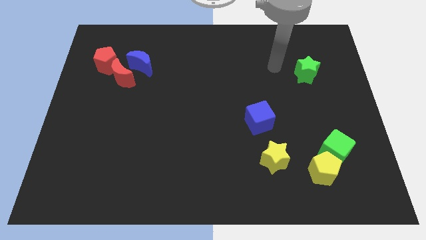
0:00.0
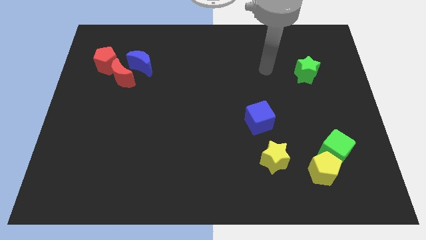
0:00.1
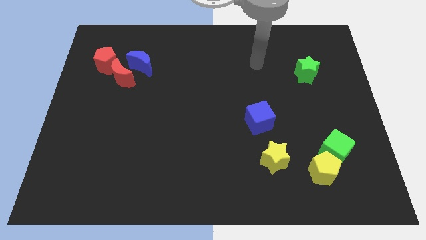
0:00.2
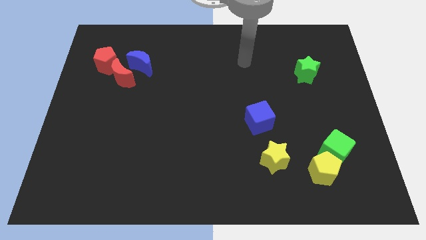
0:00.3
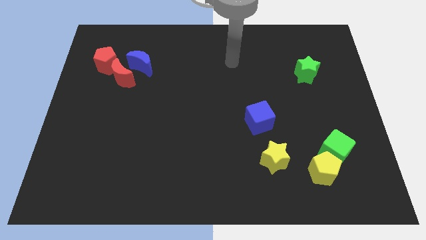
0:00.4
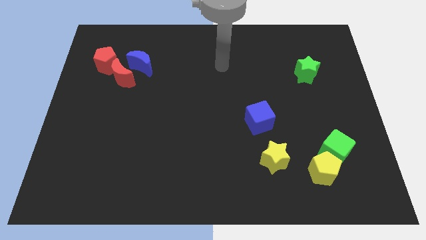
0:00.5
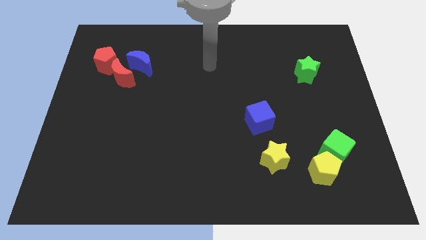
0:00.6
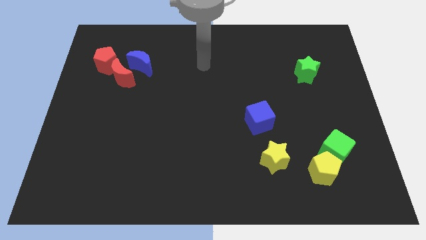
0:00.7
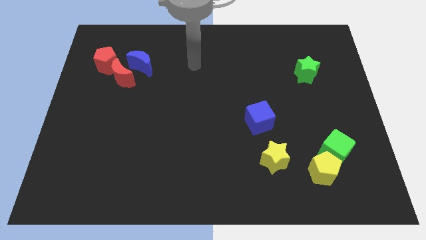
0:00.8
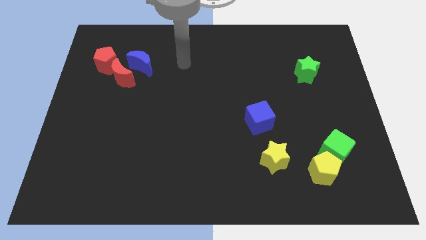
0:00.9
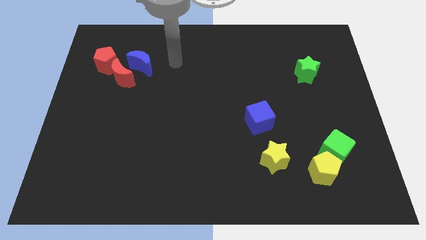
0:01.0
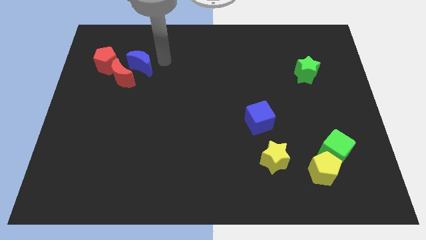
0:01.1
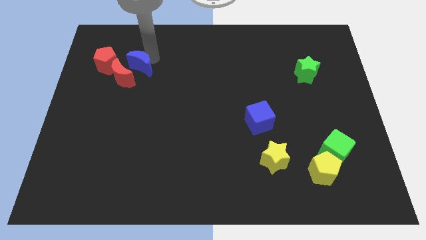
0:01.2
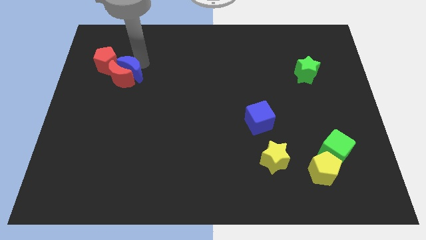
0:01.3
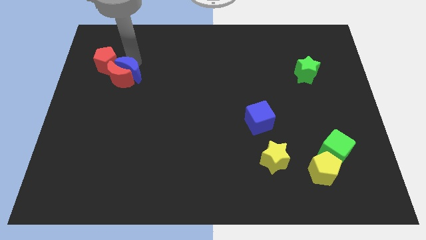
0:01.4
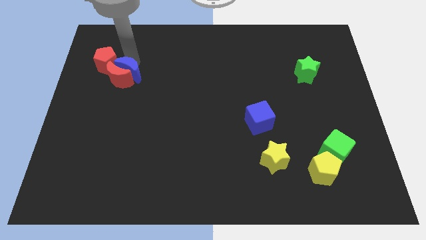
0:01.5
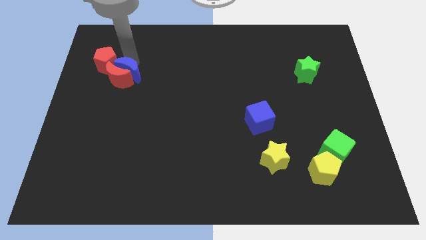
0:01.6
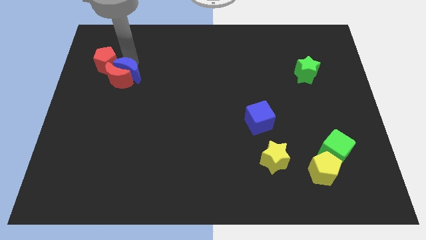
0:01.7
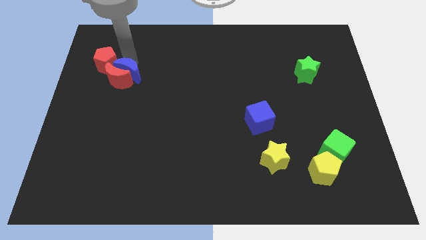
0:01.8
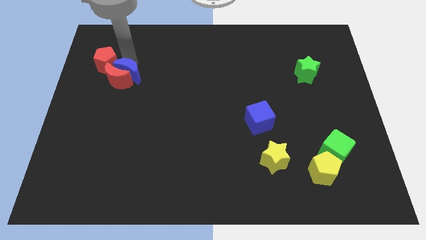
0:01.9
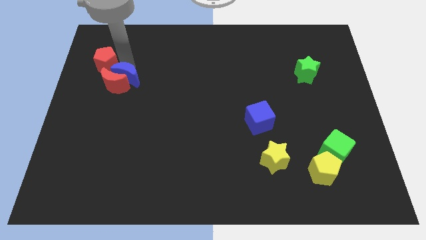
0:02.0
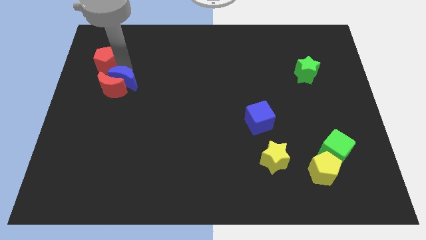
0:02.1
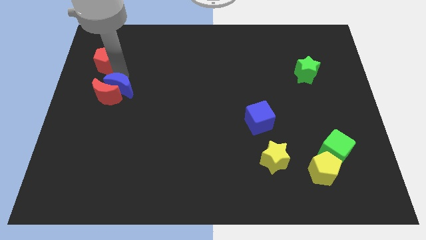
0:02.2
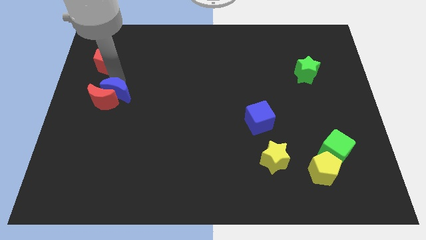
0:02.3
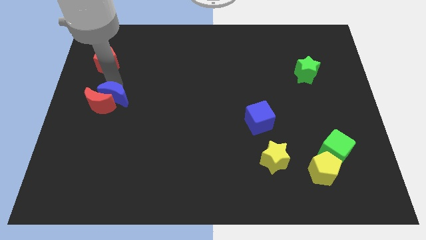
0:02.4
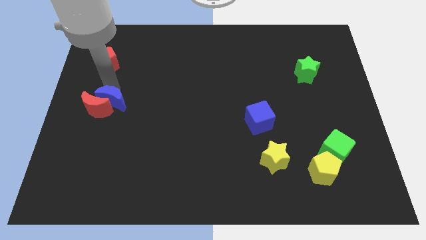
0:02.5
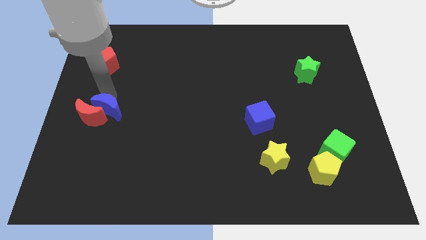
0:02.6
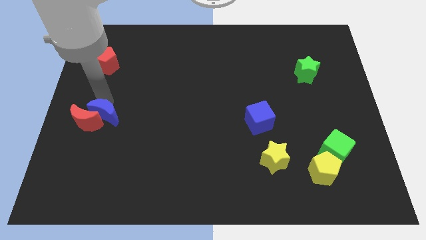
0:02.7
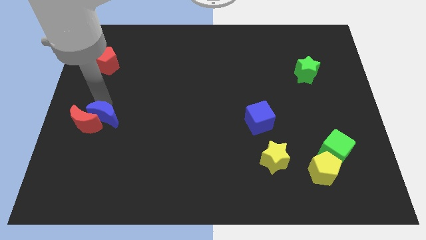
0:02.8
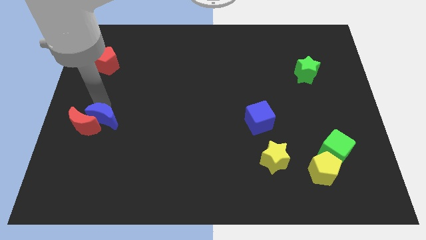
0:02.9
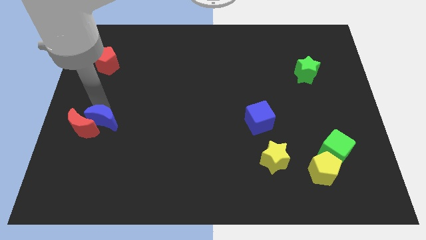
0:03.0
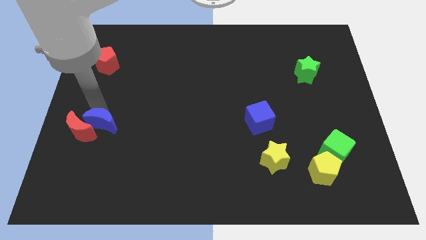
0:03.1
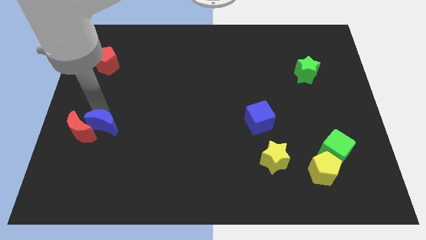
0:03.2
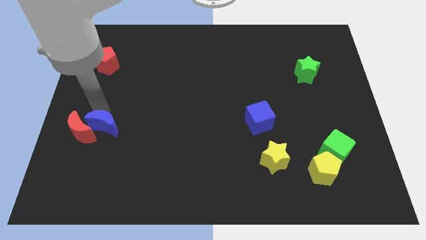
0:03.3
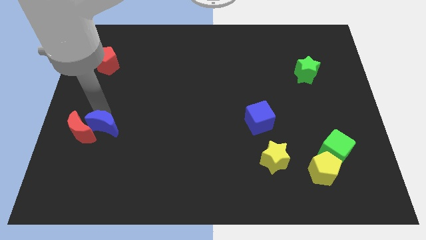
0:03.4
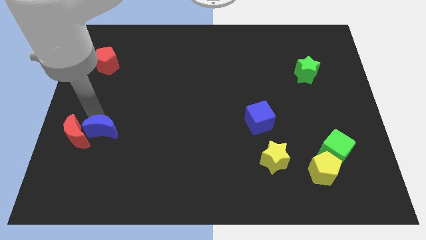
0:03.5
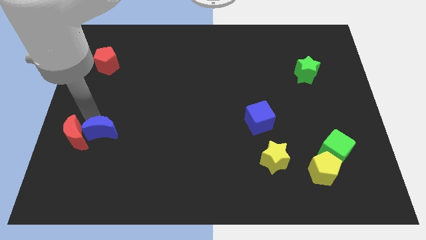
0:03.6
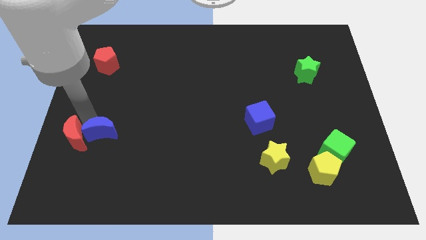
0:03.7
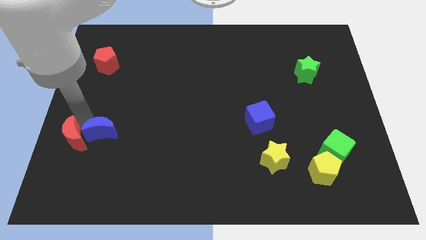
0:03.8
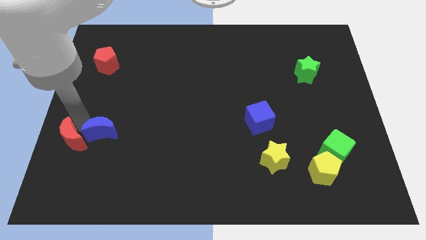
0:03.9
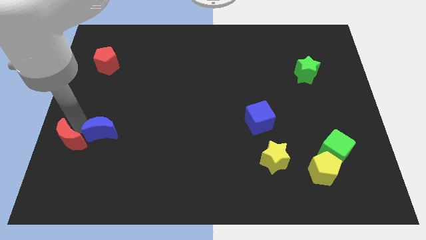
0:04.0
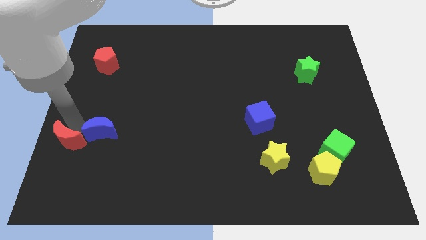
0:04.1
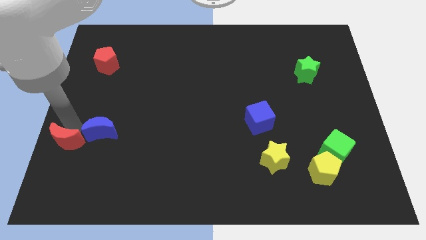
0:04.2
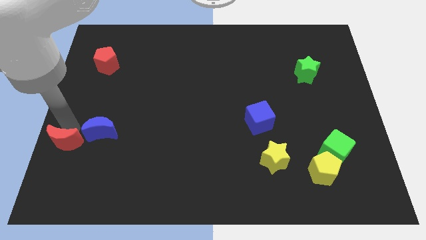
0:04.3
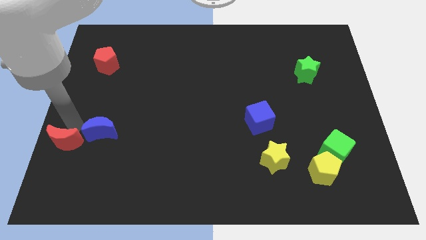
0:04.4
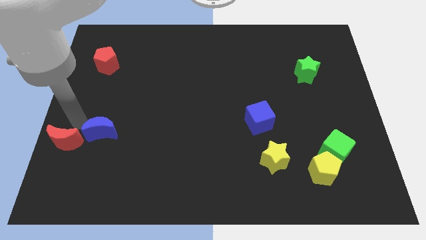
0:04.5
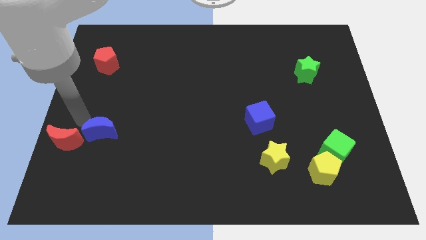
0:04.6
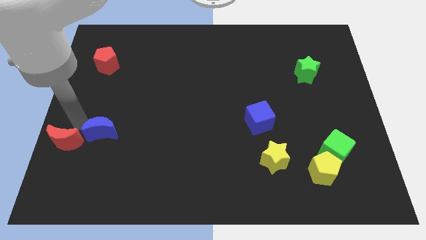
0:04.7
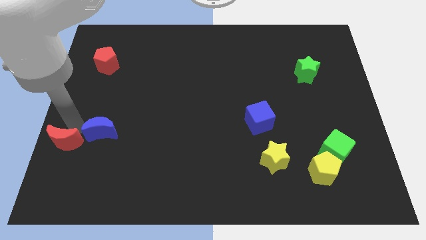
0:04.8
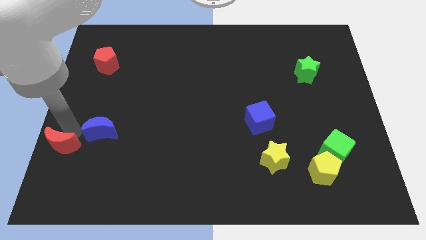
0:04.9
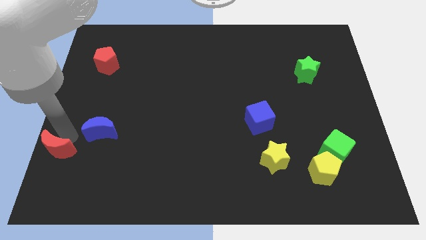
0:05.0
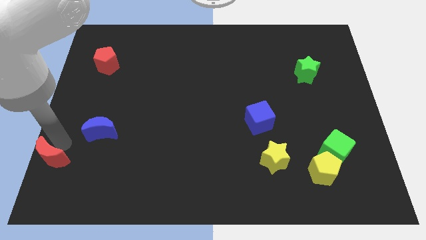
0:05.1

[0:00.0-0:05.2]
slide the red moon to the bottom left corner

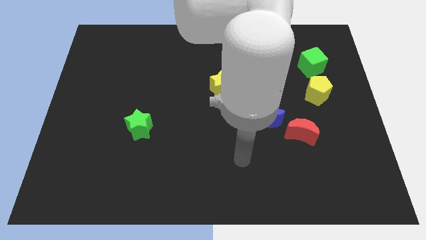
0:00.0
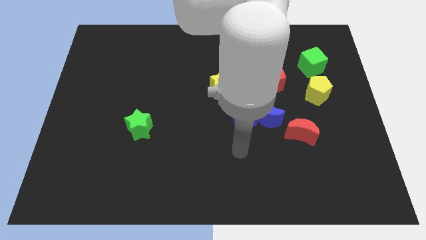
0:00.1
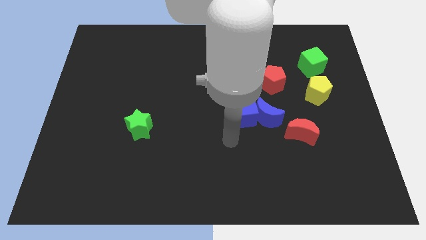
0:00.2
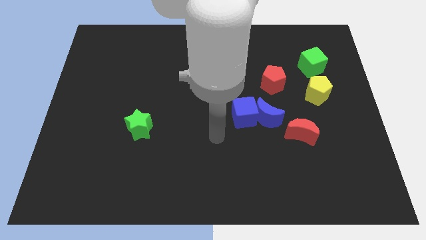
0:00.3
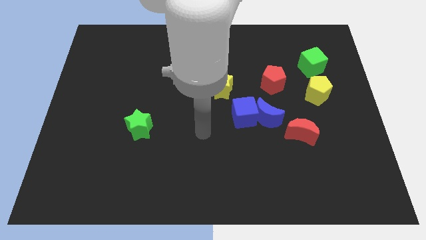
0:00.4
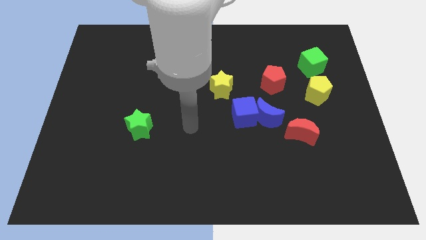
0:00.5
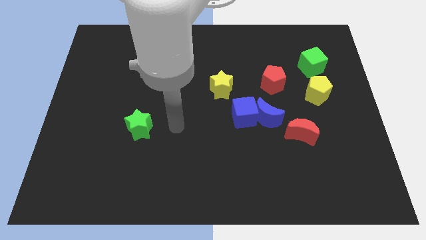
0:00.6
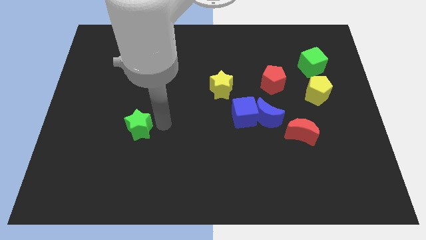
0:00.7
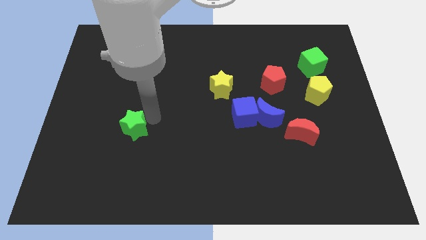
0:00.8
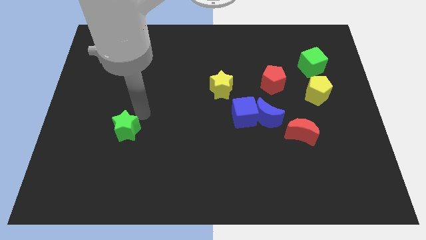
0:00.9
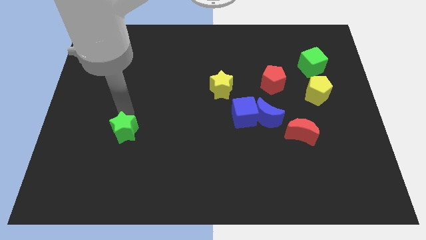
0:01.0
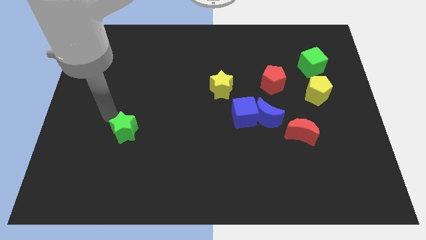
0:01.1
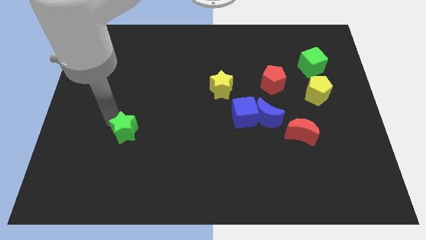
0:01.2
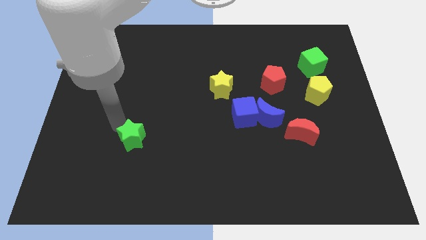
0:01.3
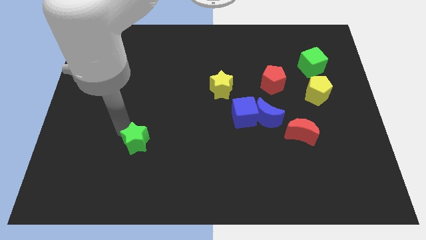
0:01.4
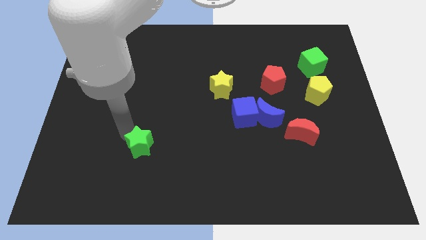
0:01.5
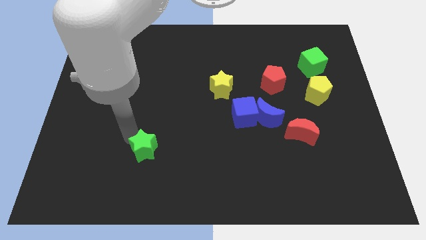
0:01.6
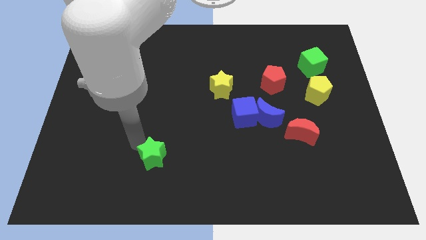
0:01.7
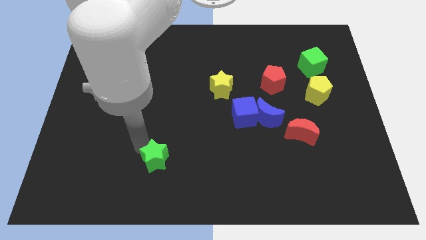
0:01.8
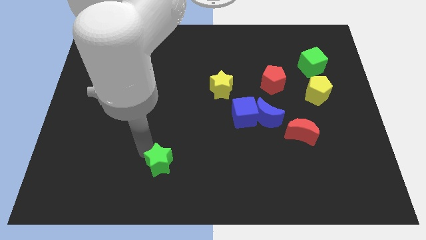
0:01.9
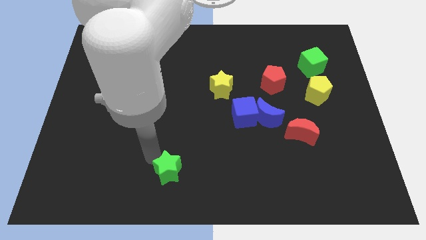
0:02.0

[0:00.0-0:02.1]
slide the green star to the bottom side
